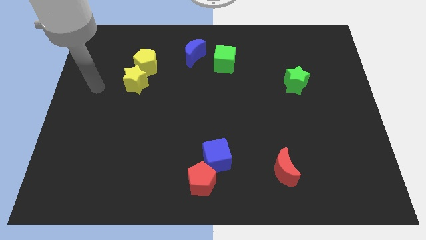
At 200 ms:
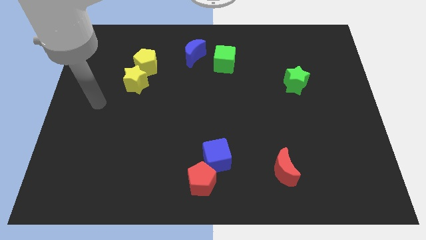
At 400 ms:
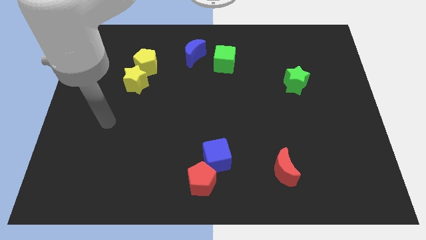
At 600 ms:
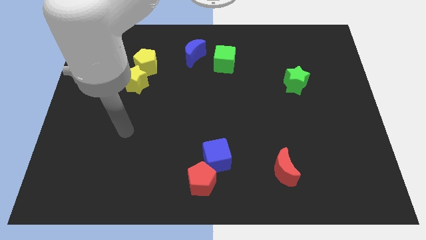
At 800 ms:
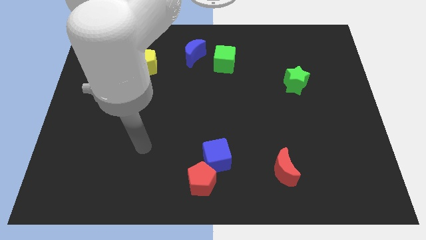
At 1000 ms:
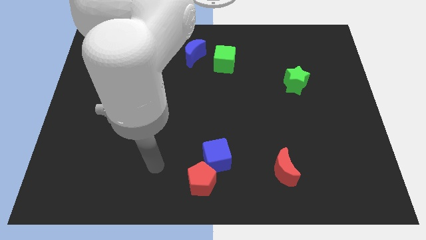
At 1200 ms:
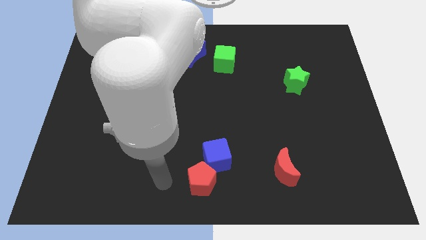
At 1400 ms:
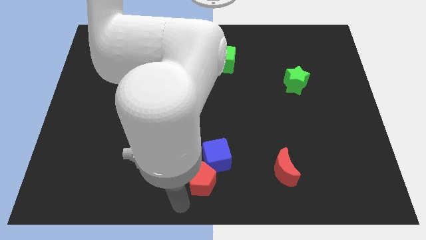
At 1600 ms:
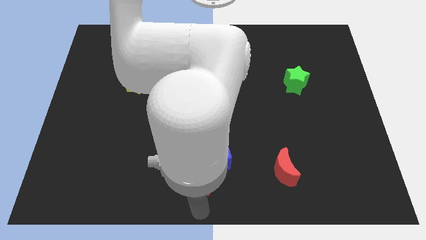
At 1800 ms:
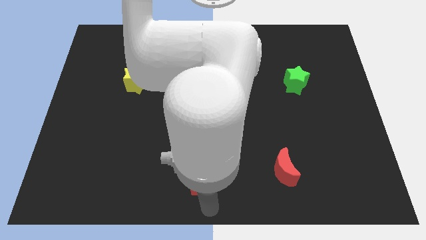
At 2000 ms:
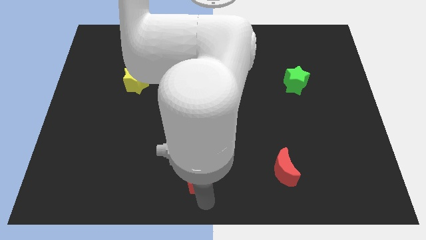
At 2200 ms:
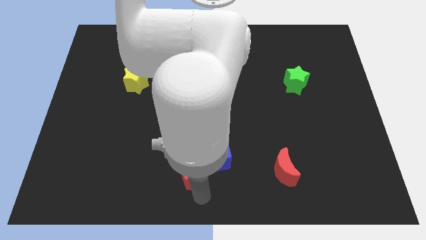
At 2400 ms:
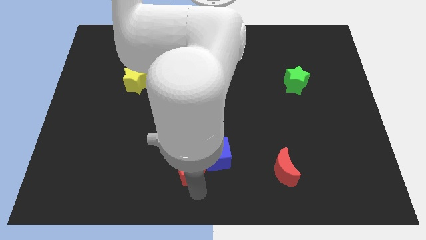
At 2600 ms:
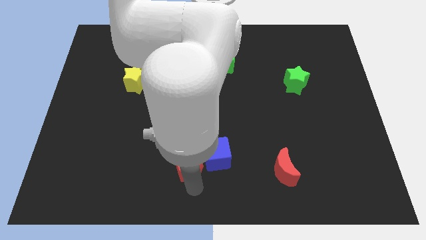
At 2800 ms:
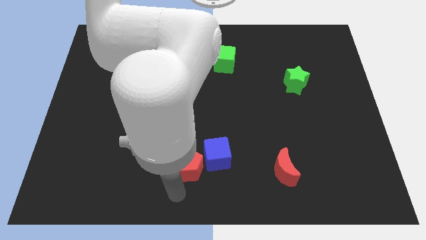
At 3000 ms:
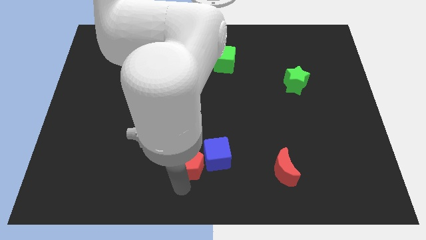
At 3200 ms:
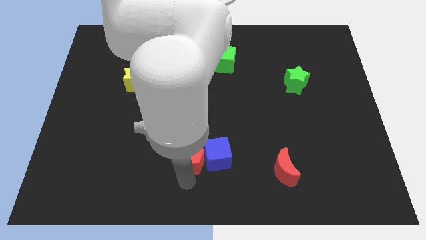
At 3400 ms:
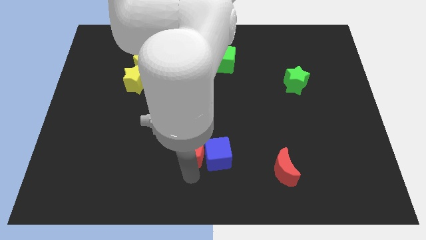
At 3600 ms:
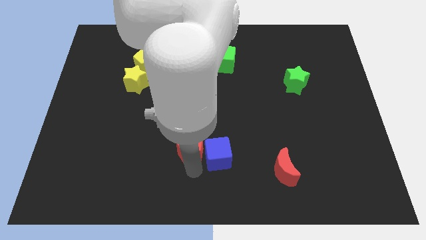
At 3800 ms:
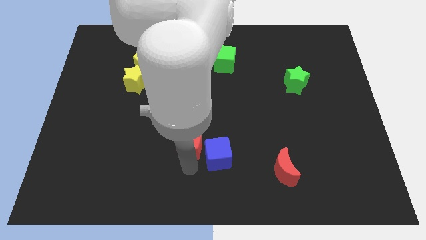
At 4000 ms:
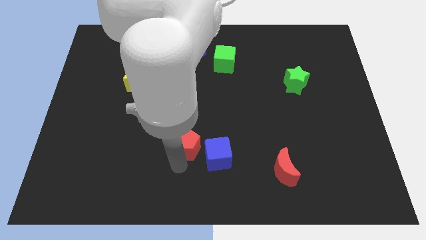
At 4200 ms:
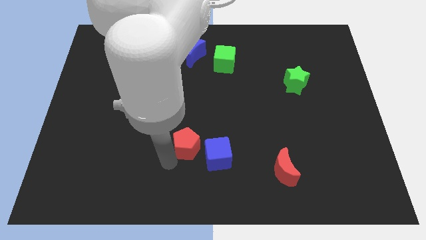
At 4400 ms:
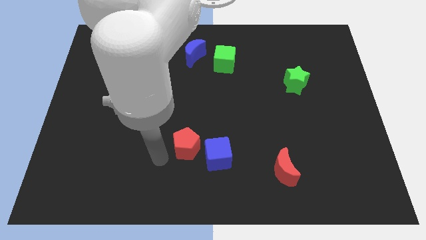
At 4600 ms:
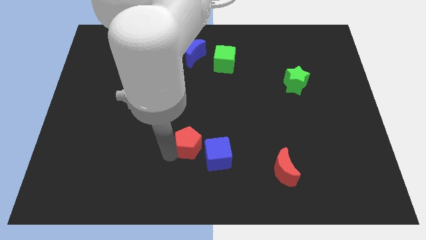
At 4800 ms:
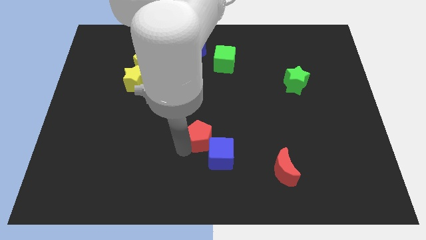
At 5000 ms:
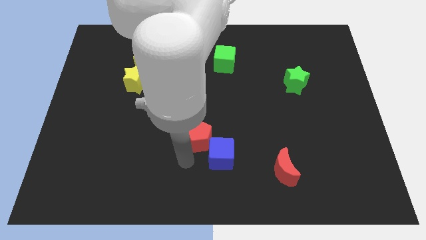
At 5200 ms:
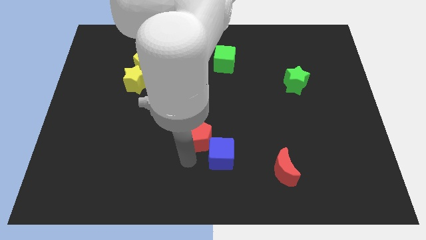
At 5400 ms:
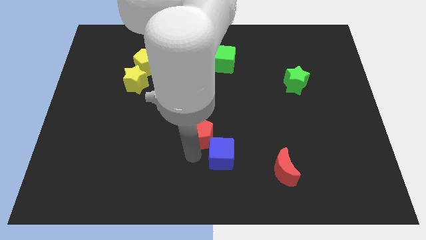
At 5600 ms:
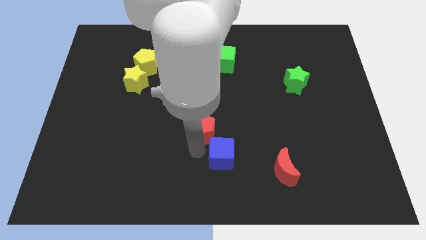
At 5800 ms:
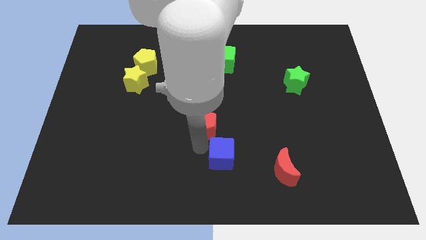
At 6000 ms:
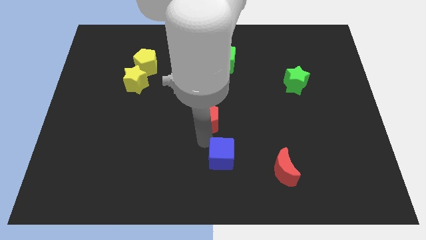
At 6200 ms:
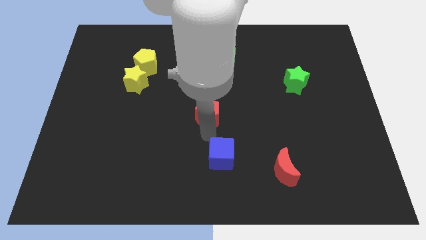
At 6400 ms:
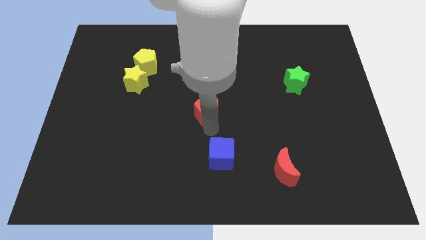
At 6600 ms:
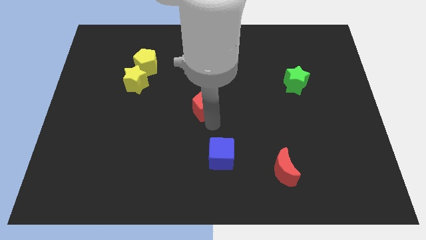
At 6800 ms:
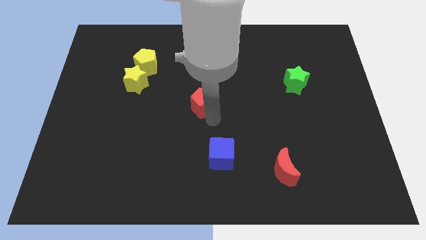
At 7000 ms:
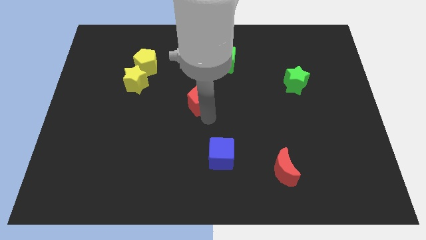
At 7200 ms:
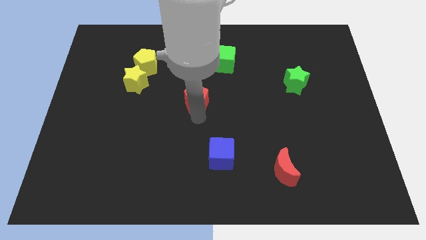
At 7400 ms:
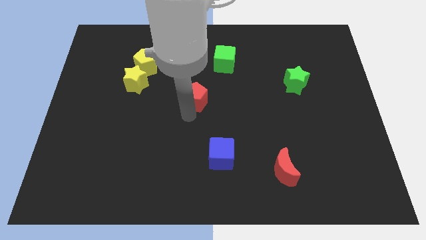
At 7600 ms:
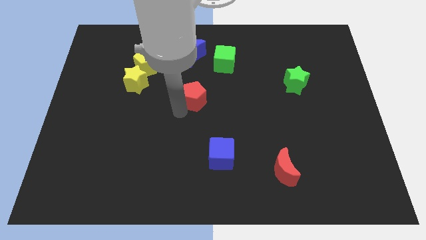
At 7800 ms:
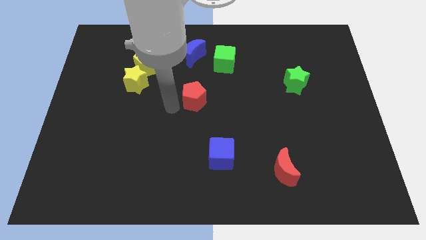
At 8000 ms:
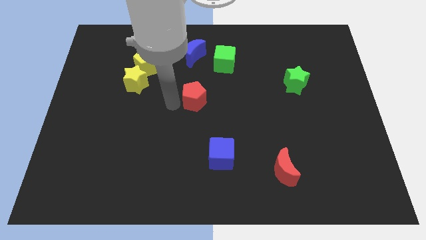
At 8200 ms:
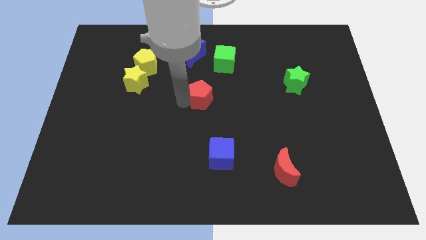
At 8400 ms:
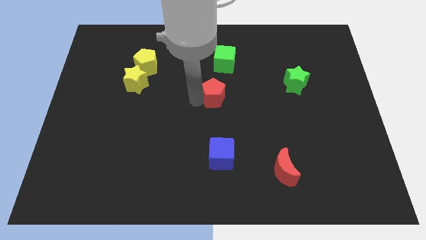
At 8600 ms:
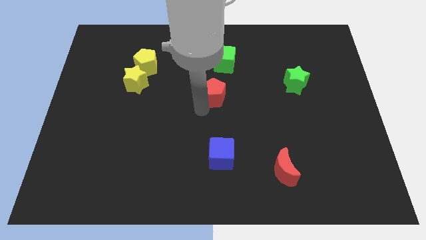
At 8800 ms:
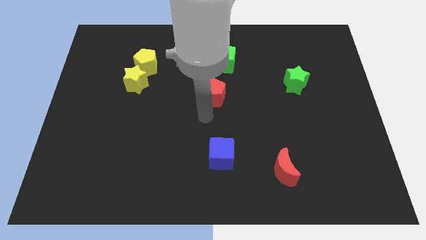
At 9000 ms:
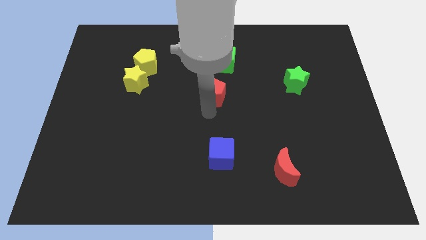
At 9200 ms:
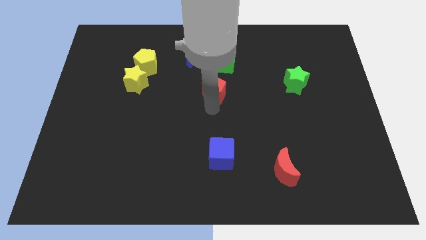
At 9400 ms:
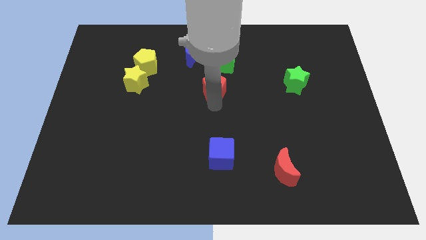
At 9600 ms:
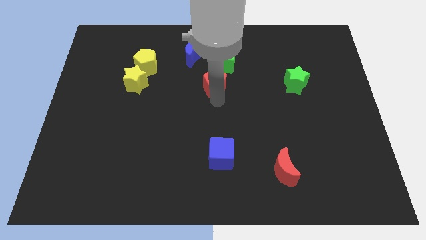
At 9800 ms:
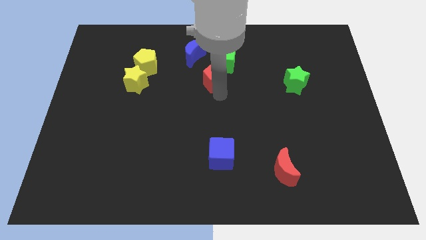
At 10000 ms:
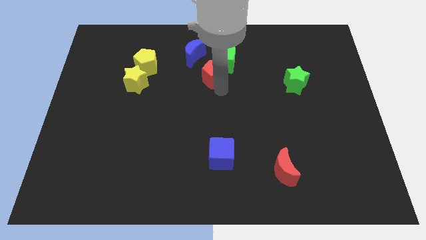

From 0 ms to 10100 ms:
move the red pentagon to the green cube

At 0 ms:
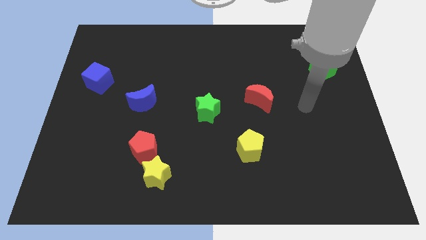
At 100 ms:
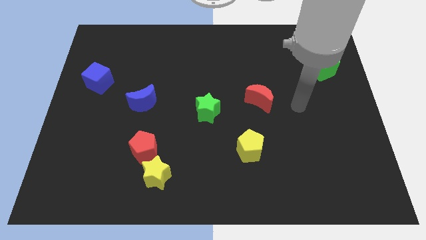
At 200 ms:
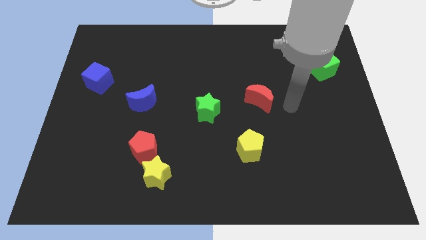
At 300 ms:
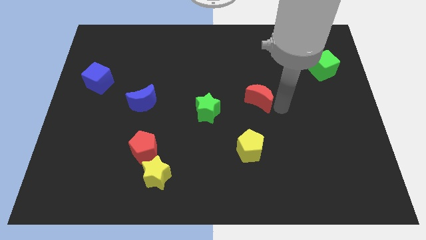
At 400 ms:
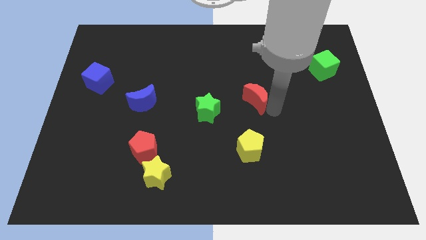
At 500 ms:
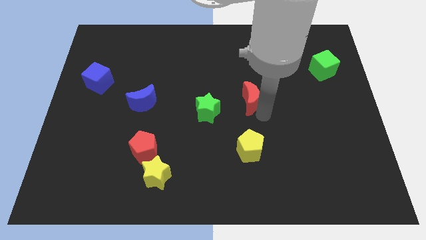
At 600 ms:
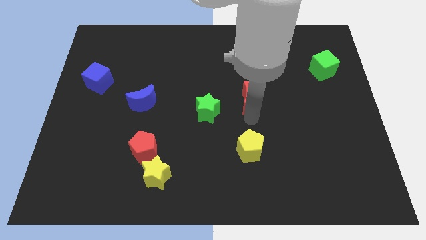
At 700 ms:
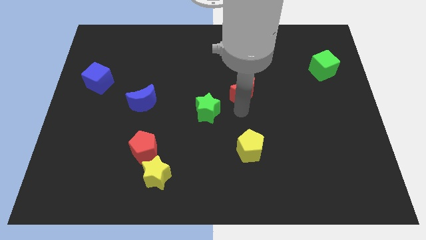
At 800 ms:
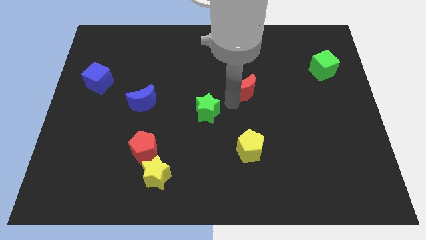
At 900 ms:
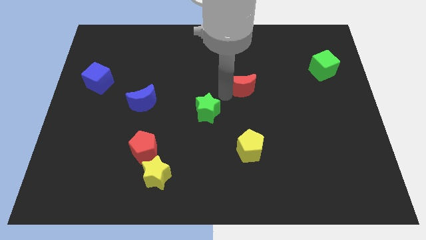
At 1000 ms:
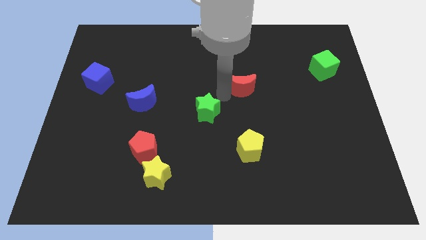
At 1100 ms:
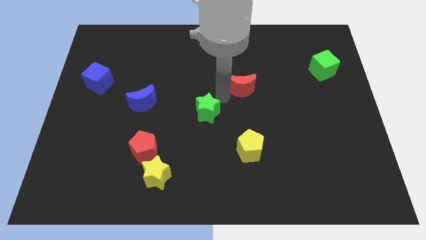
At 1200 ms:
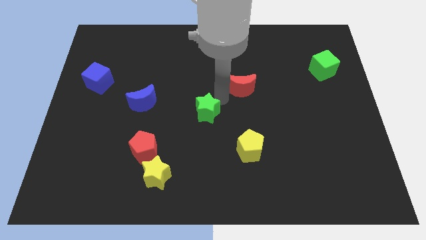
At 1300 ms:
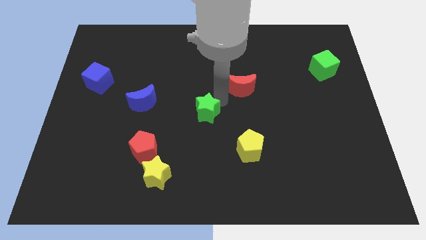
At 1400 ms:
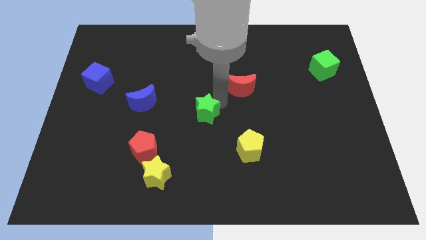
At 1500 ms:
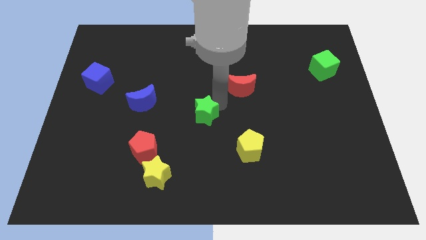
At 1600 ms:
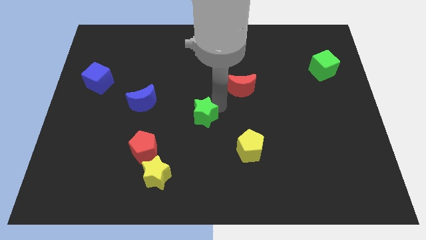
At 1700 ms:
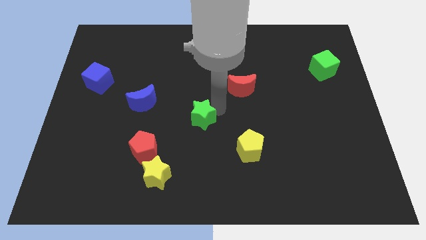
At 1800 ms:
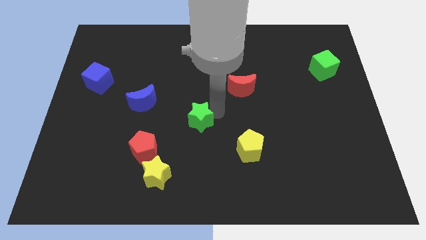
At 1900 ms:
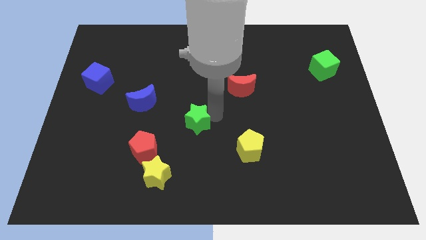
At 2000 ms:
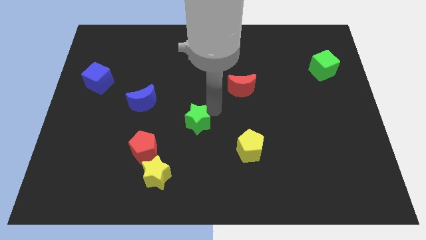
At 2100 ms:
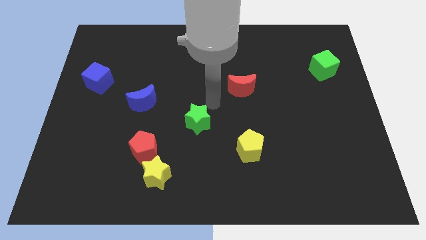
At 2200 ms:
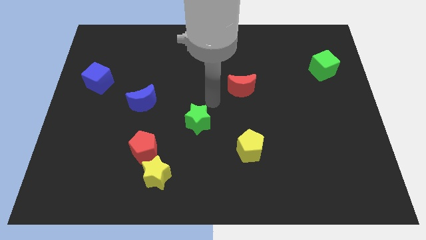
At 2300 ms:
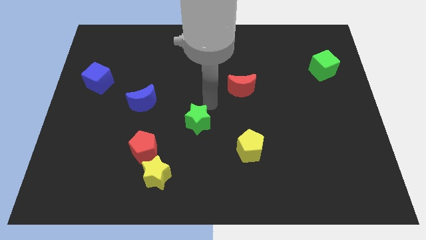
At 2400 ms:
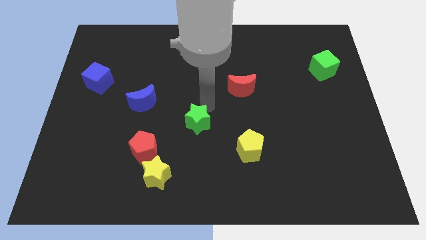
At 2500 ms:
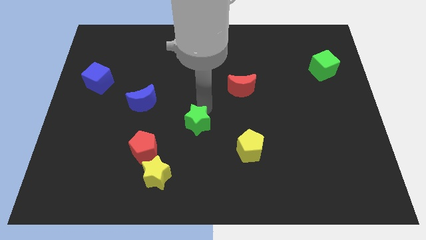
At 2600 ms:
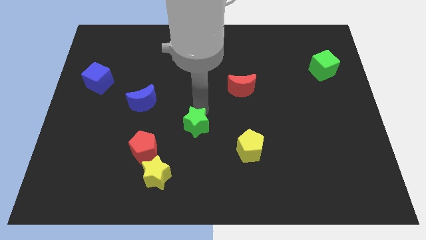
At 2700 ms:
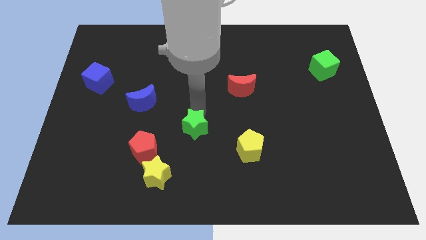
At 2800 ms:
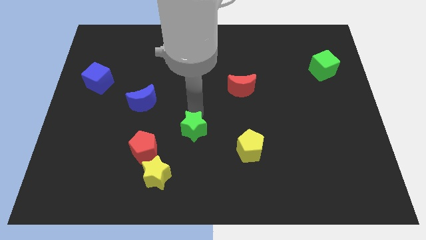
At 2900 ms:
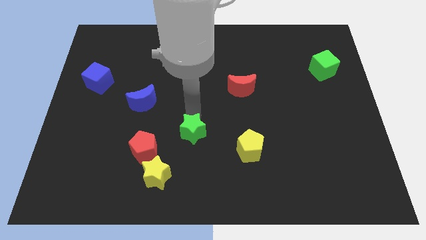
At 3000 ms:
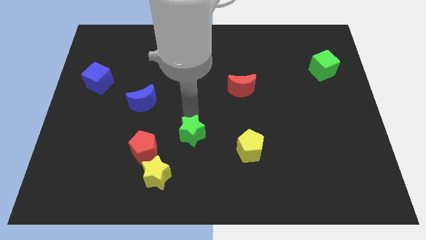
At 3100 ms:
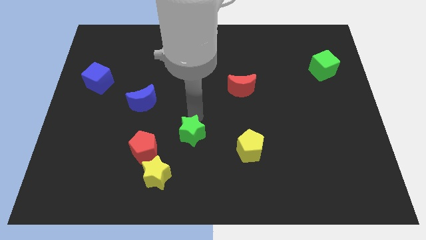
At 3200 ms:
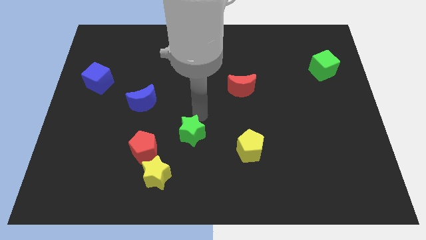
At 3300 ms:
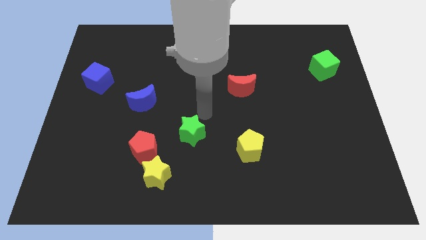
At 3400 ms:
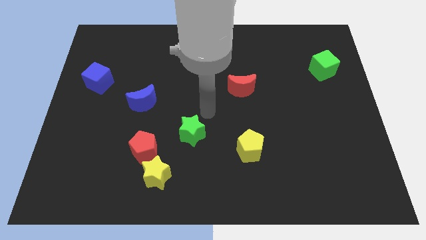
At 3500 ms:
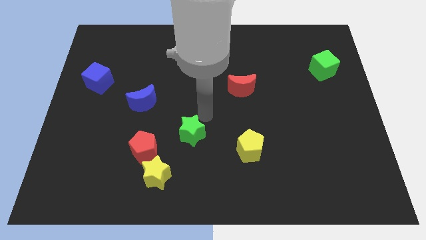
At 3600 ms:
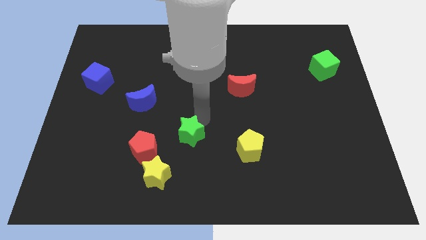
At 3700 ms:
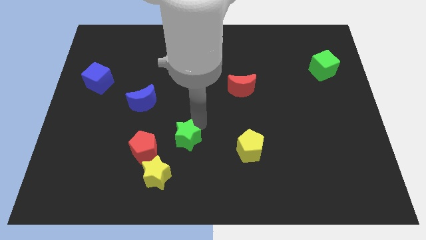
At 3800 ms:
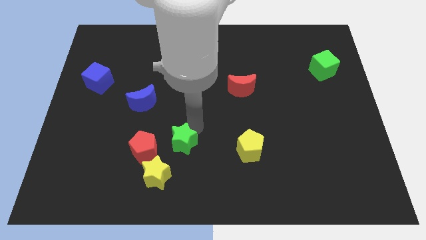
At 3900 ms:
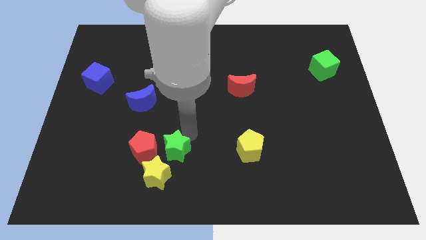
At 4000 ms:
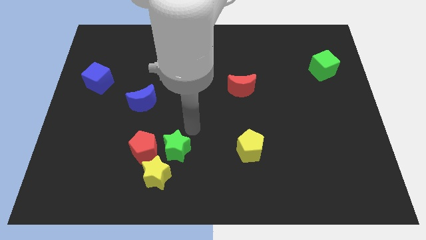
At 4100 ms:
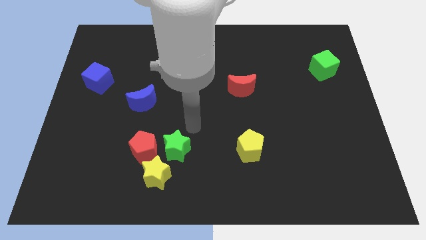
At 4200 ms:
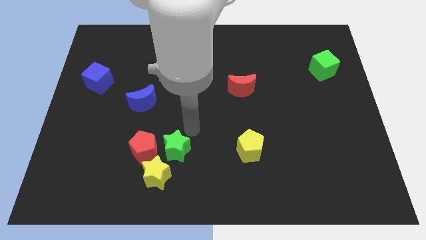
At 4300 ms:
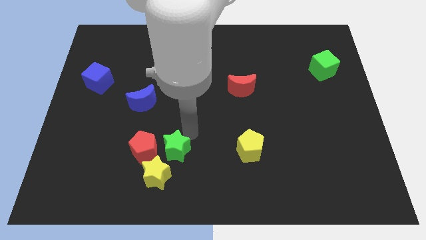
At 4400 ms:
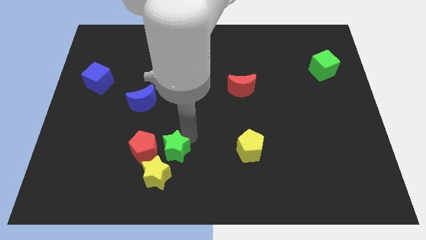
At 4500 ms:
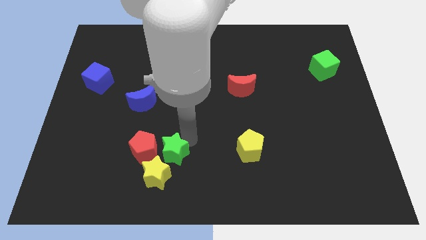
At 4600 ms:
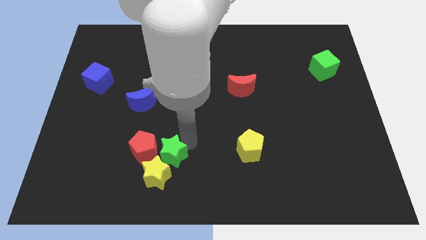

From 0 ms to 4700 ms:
push the green star close to the yellow star
